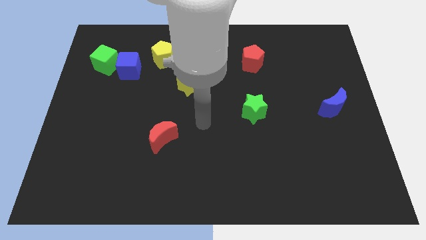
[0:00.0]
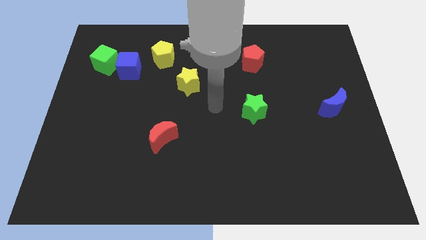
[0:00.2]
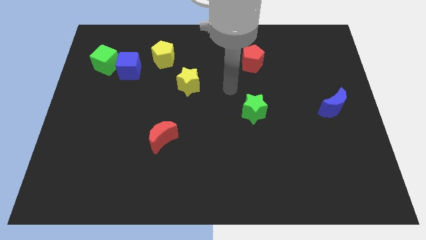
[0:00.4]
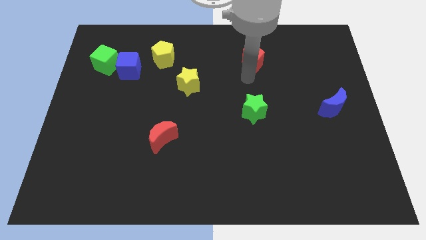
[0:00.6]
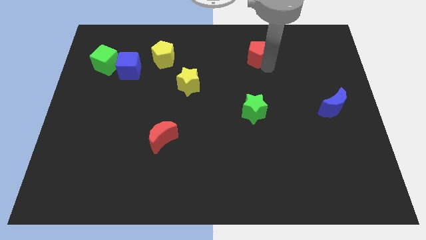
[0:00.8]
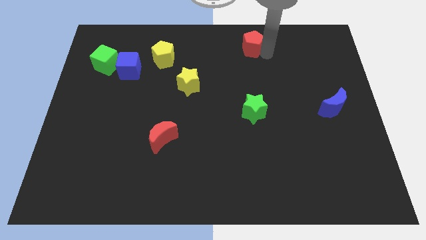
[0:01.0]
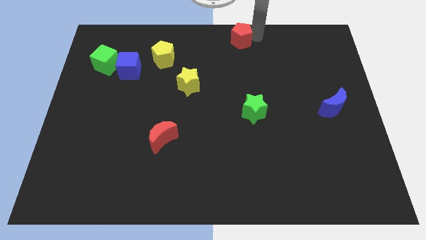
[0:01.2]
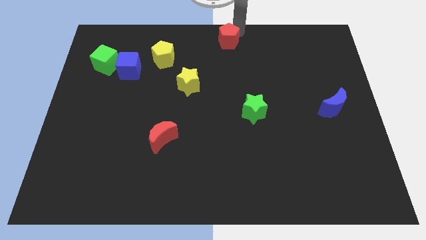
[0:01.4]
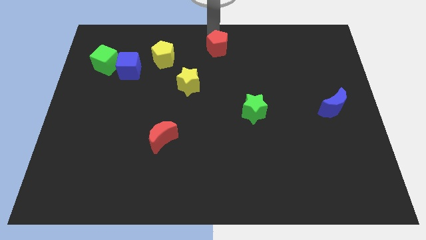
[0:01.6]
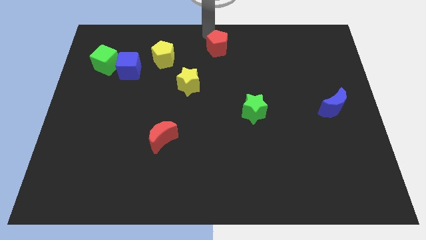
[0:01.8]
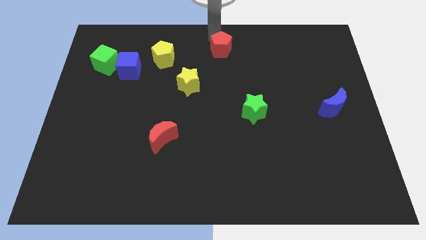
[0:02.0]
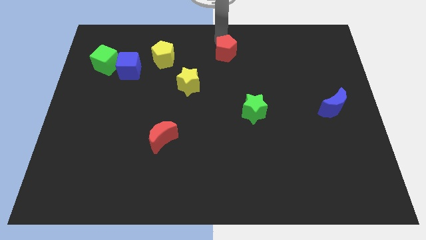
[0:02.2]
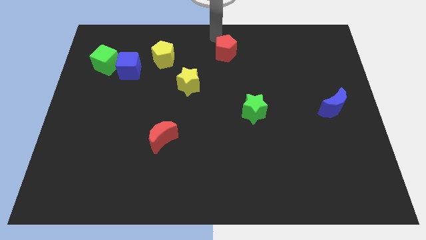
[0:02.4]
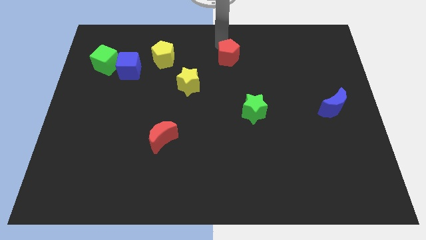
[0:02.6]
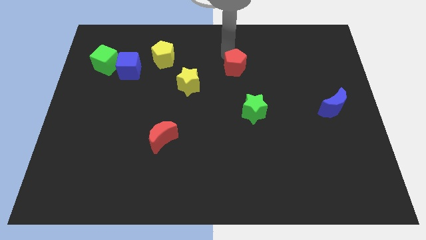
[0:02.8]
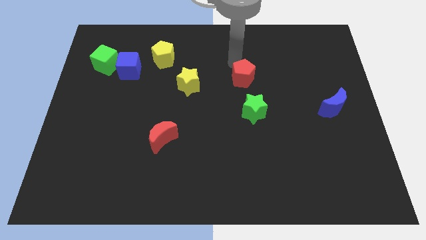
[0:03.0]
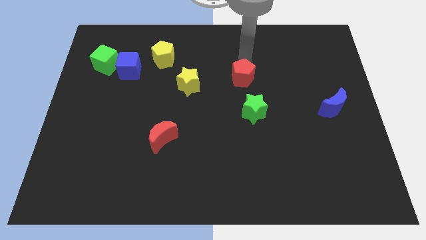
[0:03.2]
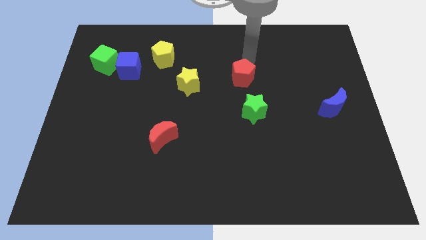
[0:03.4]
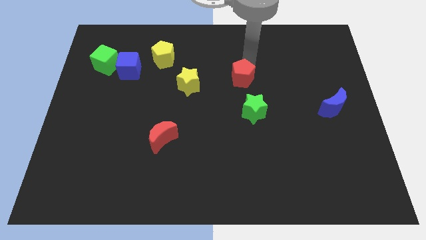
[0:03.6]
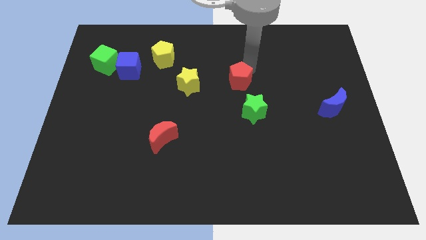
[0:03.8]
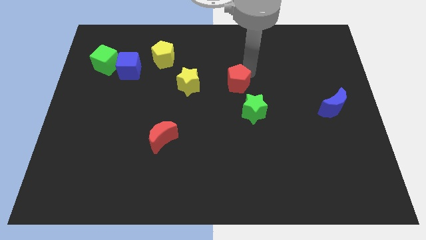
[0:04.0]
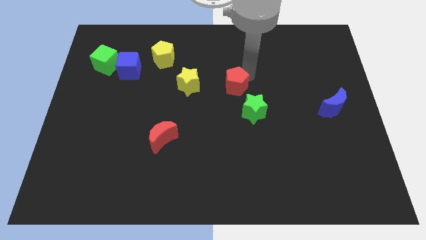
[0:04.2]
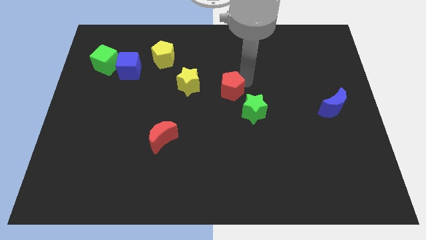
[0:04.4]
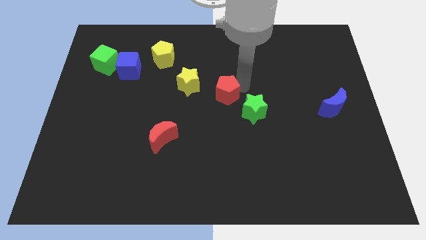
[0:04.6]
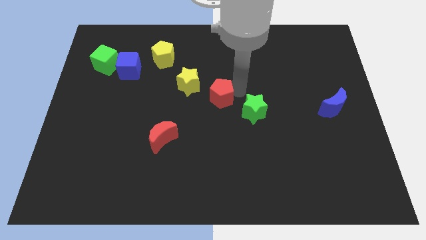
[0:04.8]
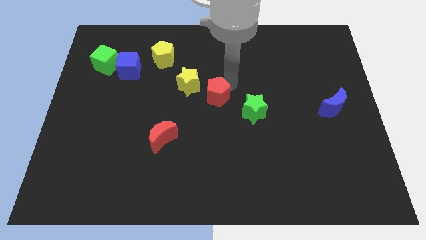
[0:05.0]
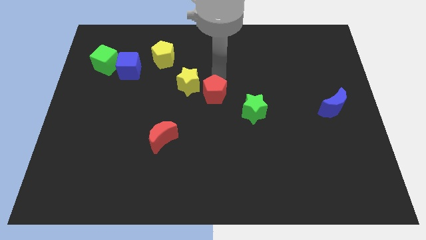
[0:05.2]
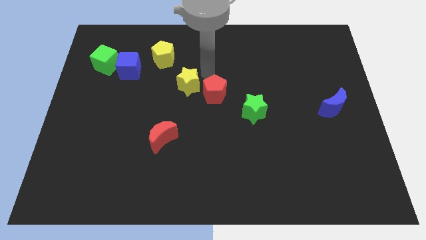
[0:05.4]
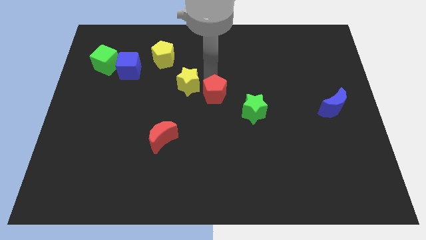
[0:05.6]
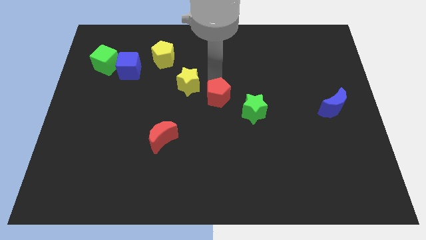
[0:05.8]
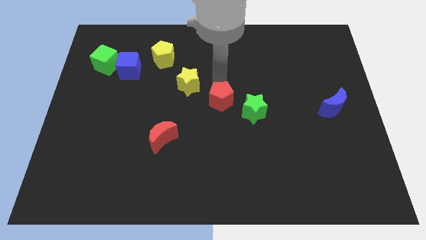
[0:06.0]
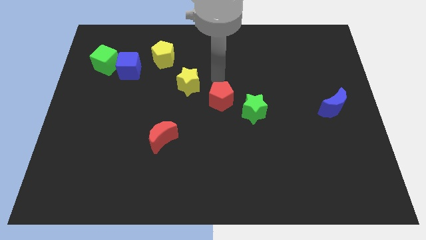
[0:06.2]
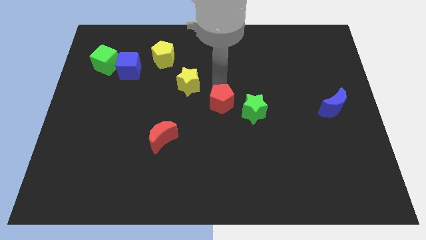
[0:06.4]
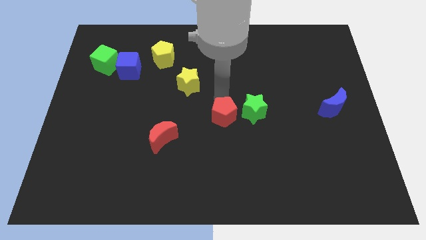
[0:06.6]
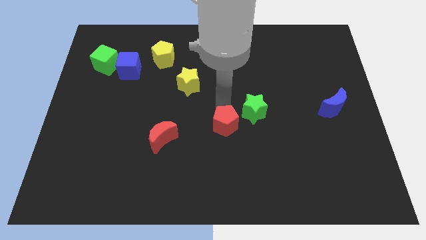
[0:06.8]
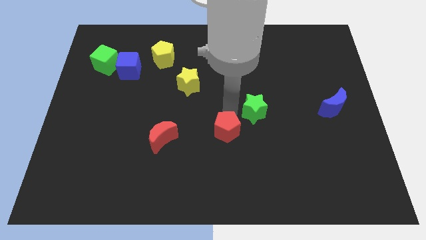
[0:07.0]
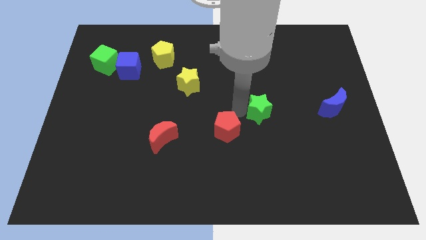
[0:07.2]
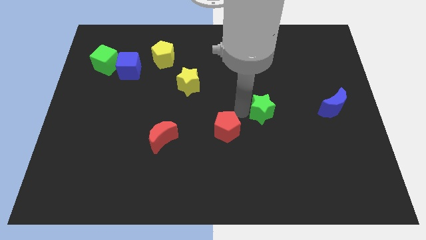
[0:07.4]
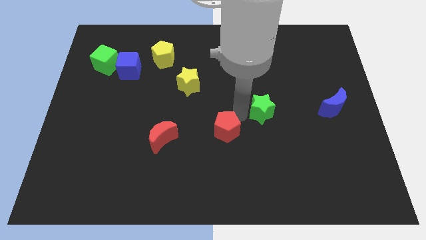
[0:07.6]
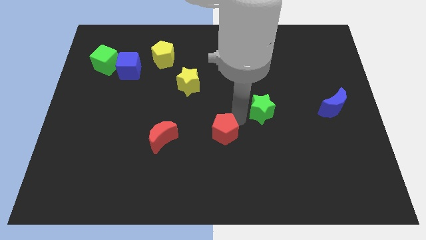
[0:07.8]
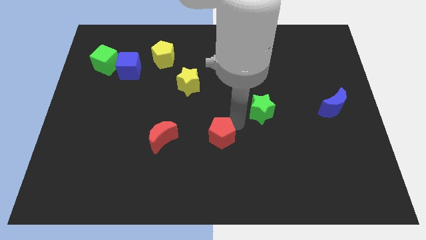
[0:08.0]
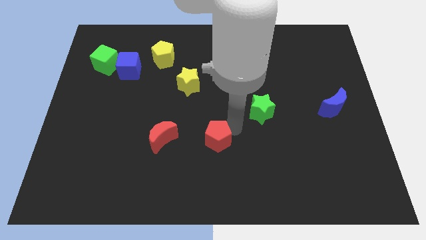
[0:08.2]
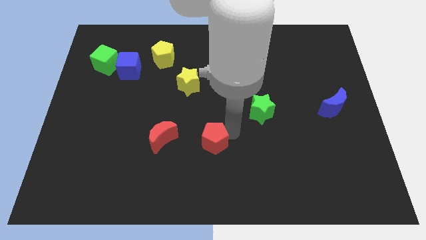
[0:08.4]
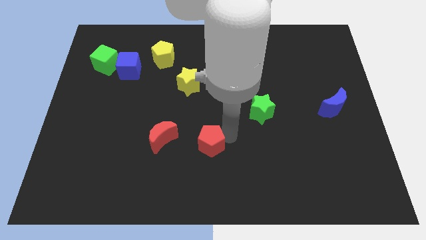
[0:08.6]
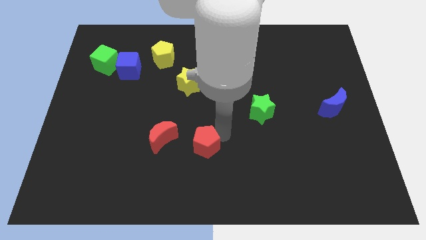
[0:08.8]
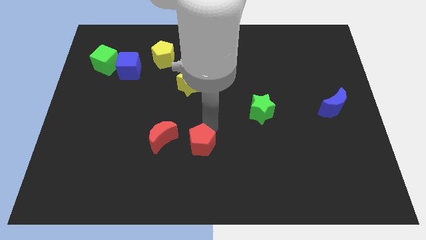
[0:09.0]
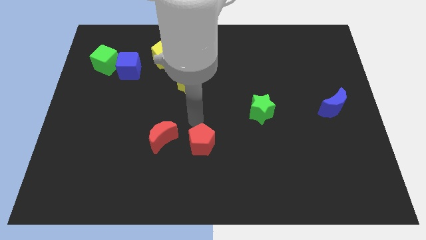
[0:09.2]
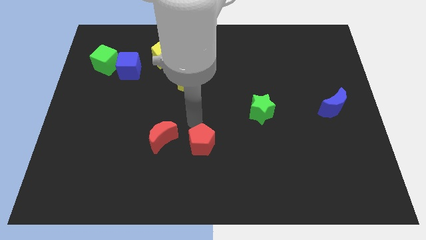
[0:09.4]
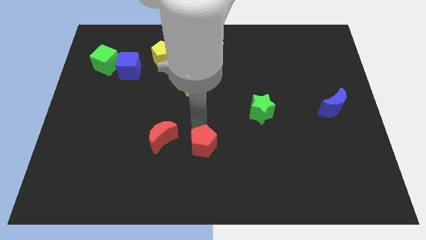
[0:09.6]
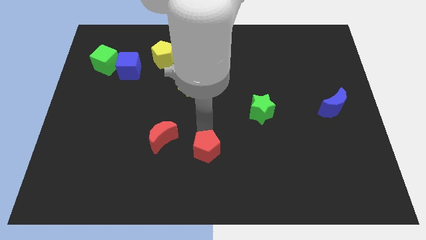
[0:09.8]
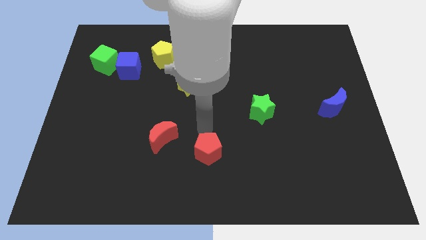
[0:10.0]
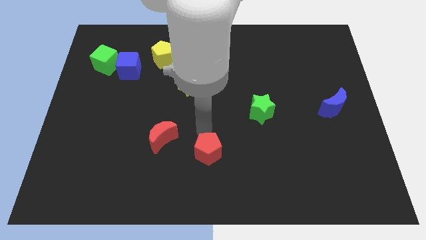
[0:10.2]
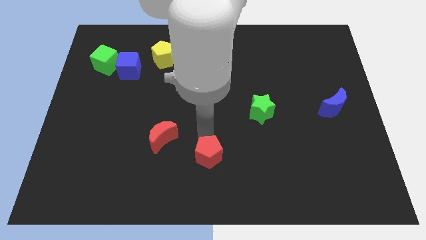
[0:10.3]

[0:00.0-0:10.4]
slide the red pentagon to the bottom side

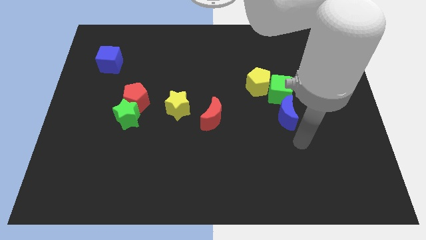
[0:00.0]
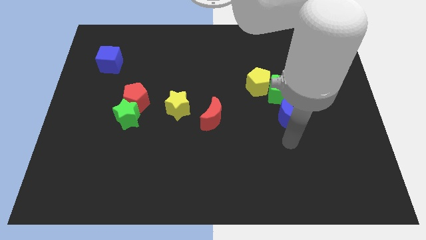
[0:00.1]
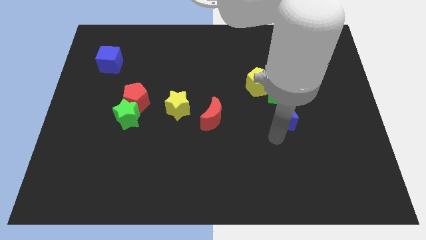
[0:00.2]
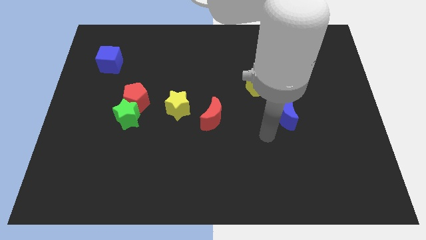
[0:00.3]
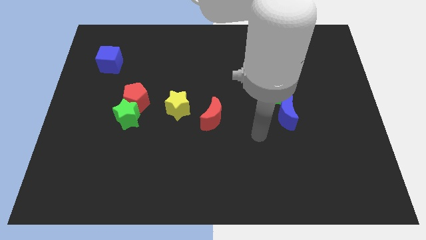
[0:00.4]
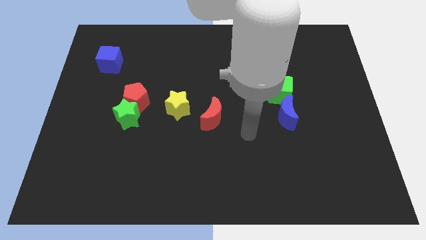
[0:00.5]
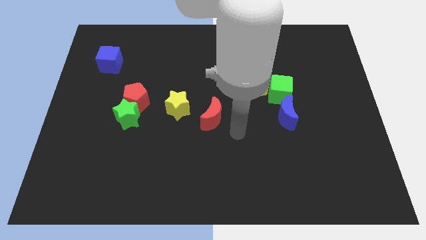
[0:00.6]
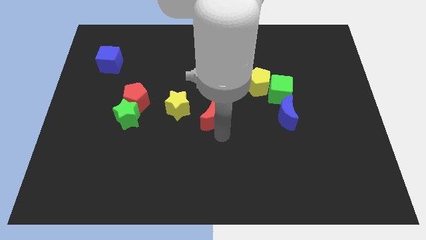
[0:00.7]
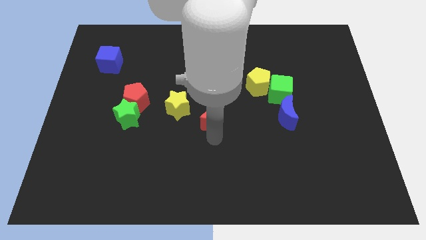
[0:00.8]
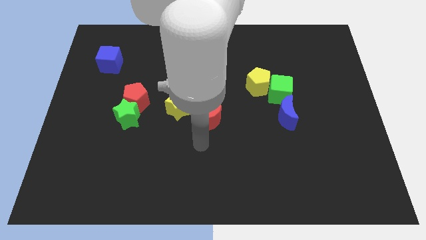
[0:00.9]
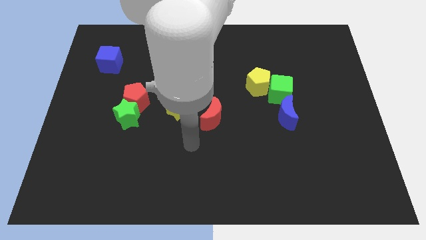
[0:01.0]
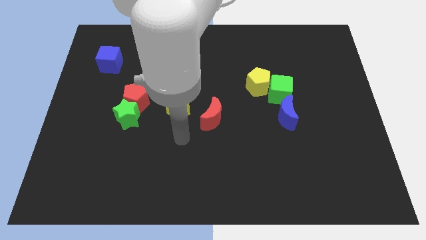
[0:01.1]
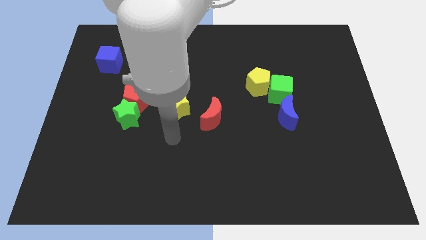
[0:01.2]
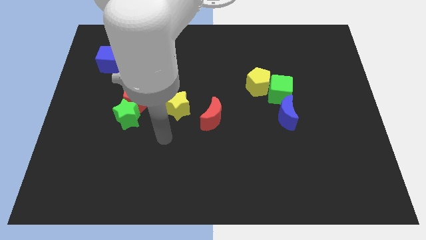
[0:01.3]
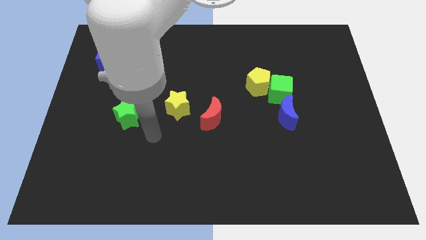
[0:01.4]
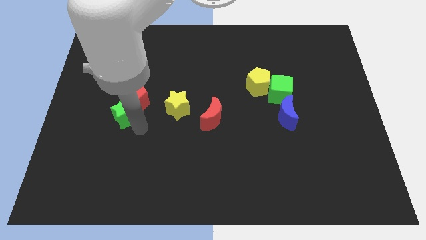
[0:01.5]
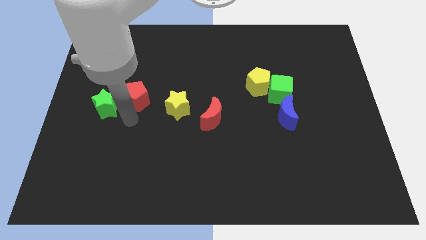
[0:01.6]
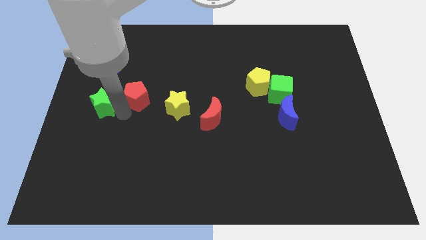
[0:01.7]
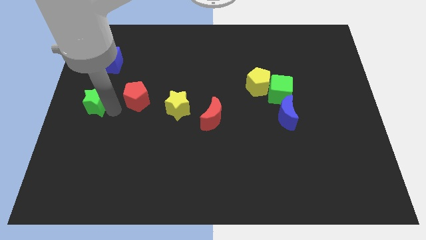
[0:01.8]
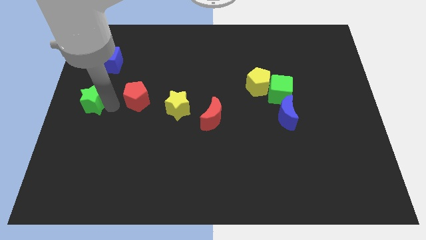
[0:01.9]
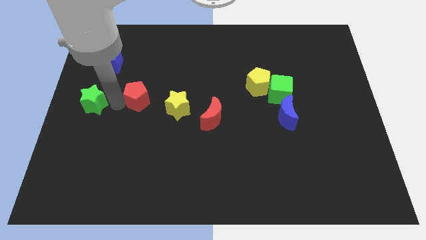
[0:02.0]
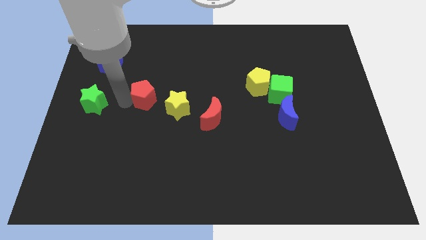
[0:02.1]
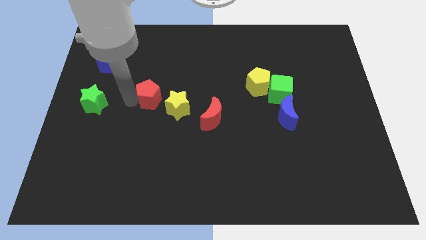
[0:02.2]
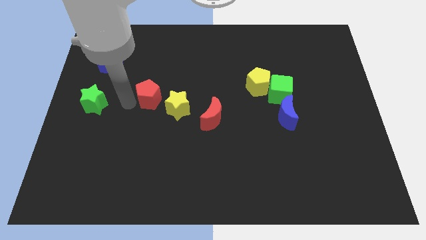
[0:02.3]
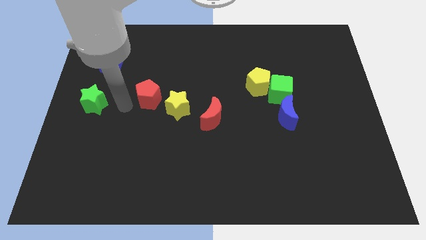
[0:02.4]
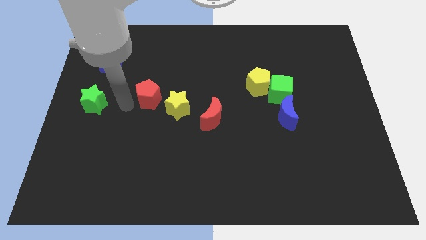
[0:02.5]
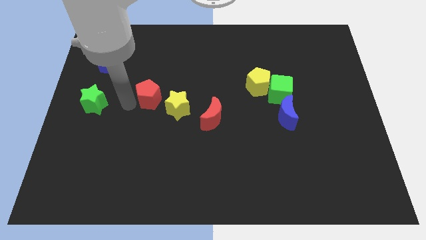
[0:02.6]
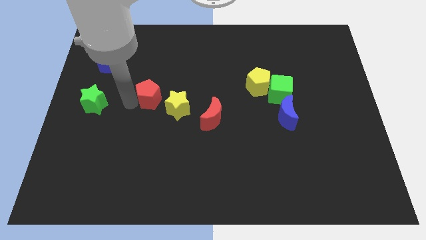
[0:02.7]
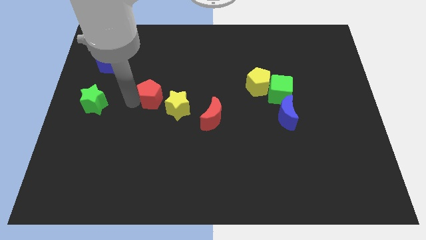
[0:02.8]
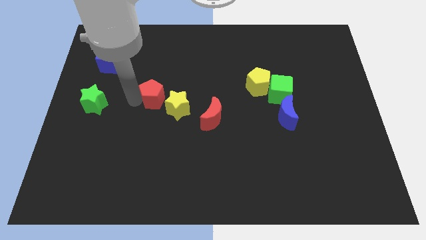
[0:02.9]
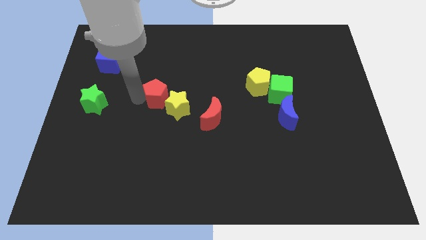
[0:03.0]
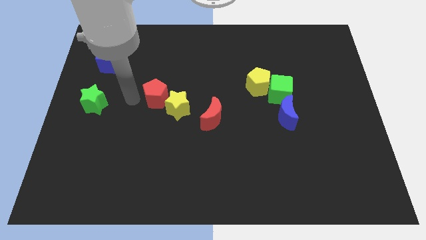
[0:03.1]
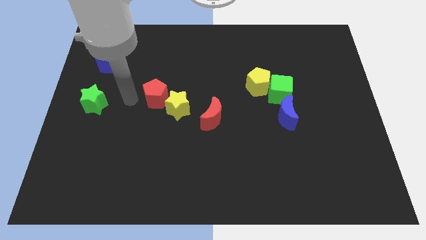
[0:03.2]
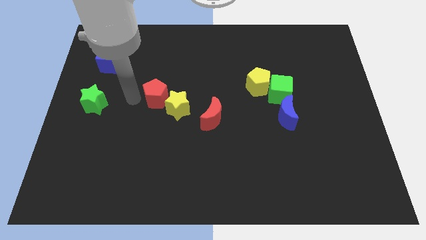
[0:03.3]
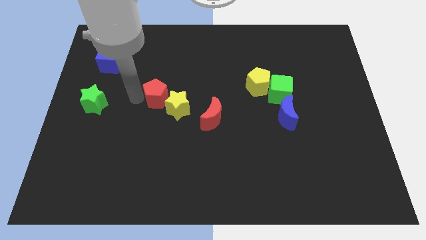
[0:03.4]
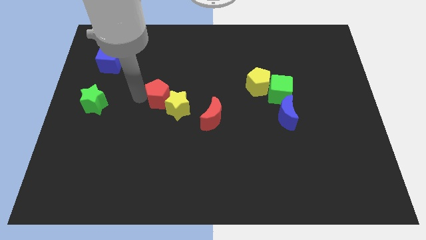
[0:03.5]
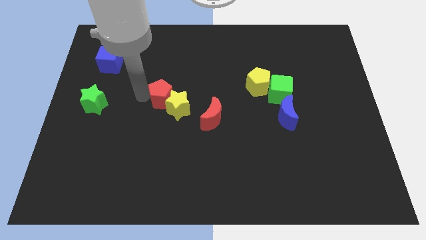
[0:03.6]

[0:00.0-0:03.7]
slide the red pentagon to the middle
